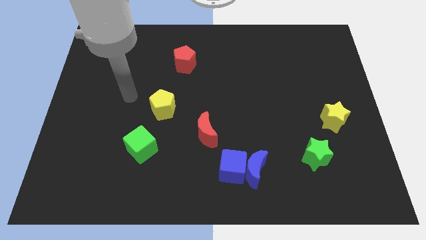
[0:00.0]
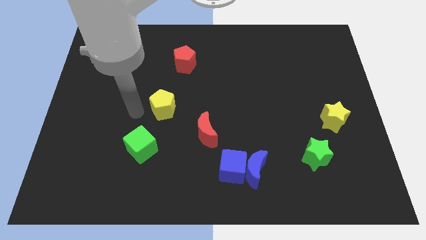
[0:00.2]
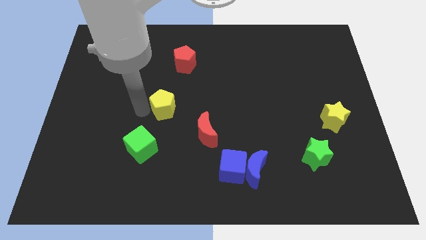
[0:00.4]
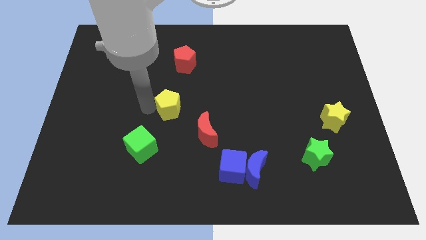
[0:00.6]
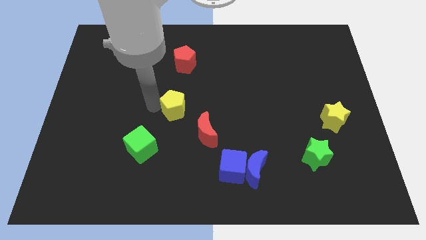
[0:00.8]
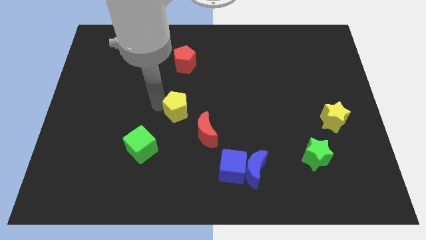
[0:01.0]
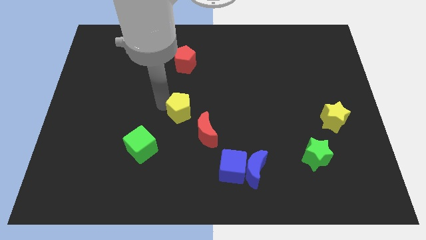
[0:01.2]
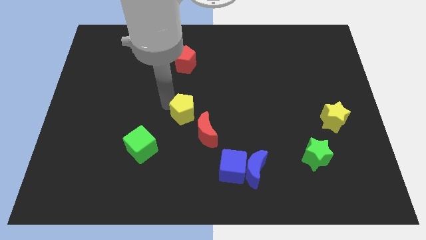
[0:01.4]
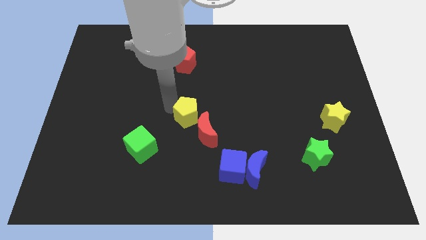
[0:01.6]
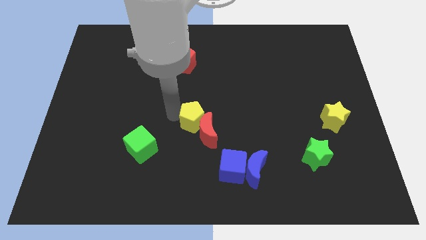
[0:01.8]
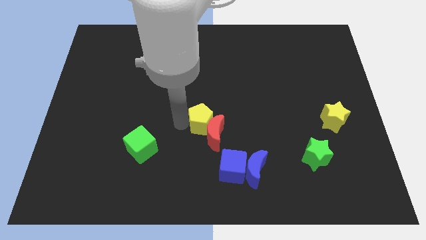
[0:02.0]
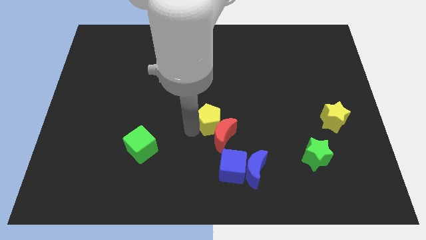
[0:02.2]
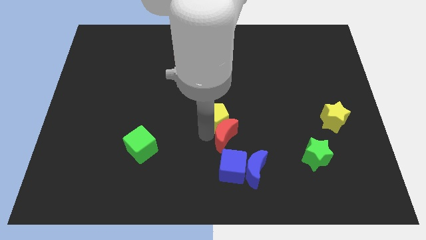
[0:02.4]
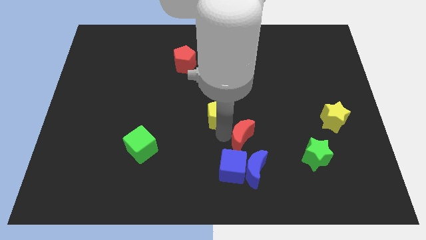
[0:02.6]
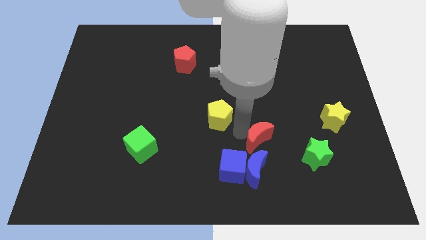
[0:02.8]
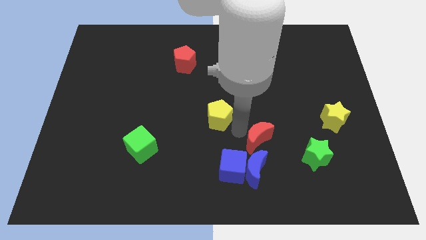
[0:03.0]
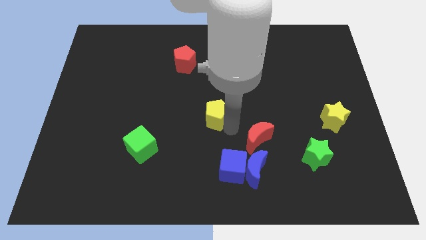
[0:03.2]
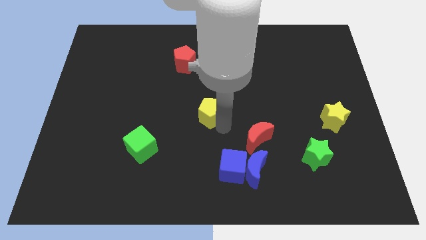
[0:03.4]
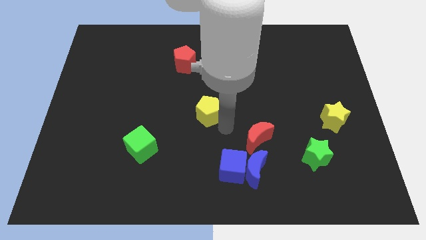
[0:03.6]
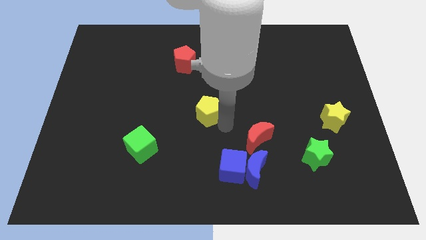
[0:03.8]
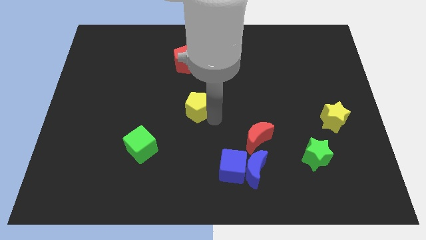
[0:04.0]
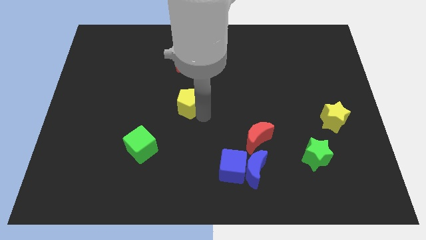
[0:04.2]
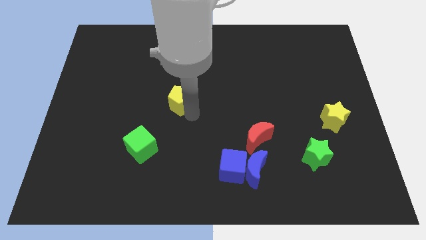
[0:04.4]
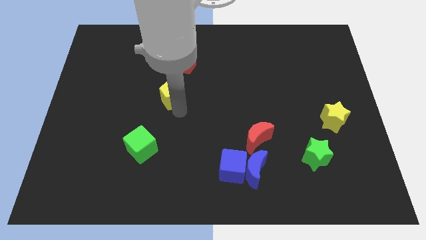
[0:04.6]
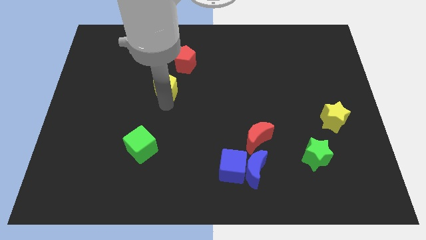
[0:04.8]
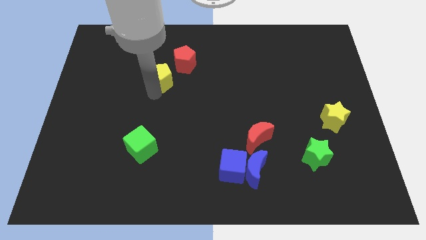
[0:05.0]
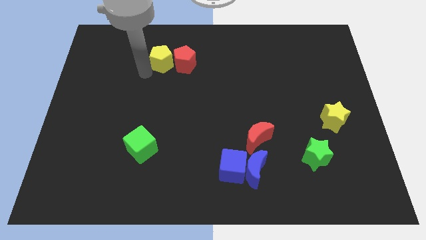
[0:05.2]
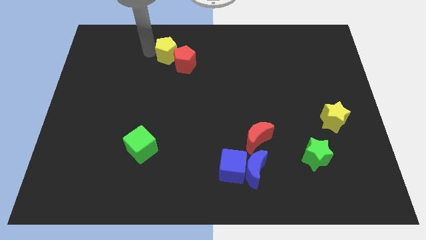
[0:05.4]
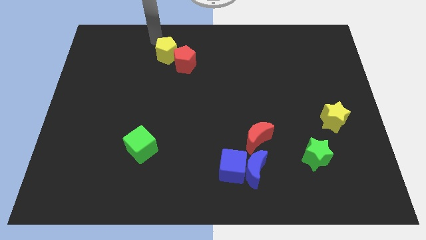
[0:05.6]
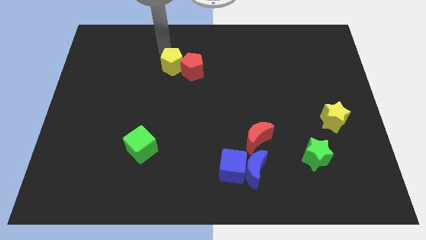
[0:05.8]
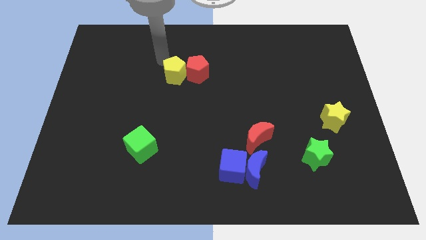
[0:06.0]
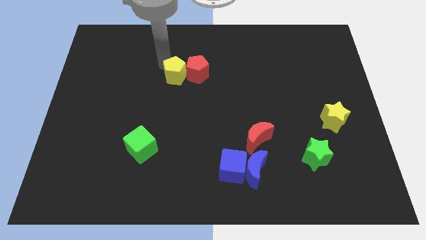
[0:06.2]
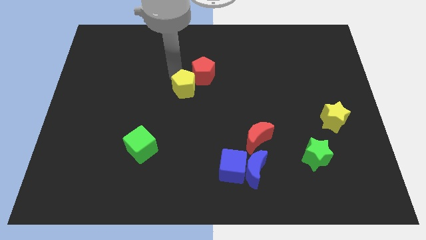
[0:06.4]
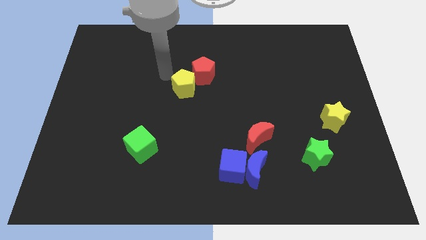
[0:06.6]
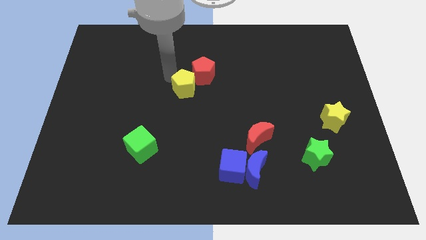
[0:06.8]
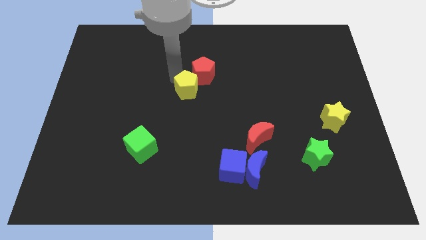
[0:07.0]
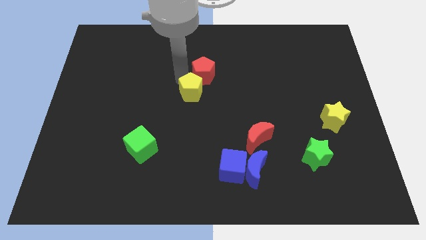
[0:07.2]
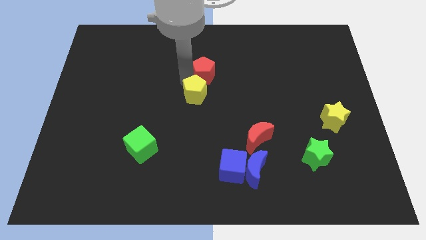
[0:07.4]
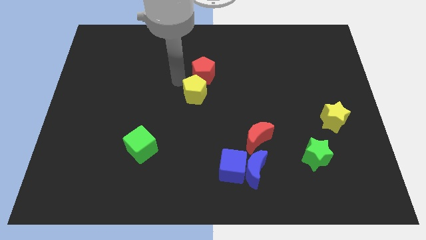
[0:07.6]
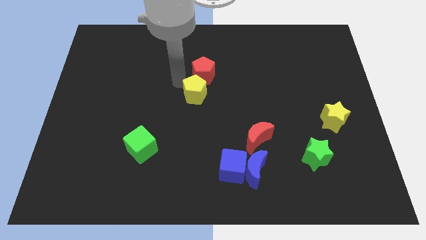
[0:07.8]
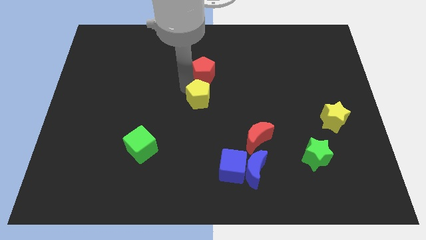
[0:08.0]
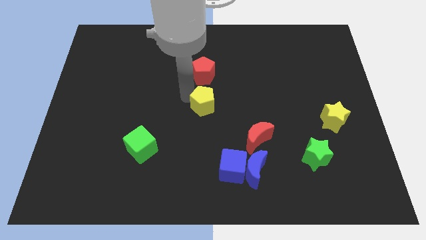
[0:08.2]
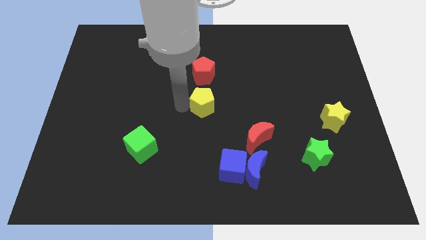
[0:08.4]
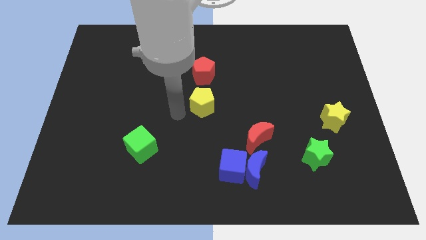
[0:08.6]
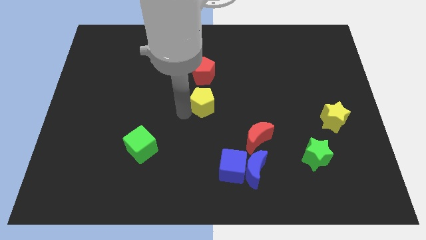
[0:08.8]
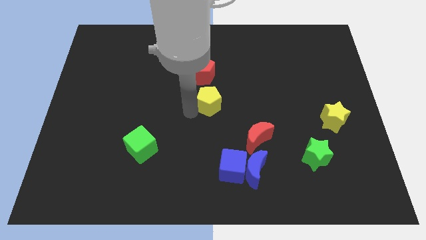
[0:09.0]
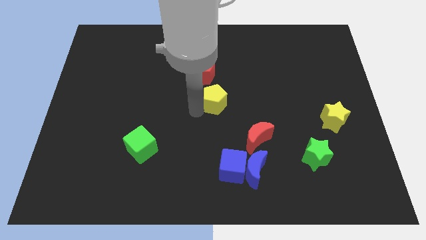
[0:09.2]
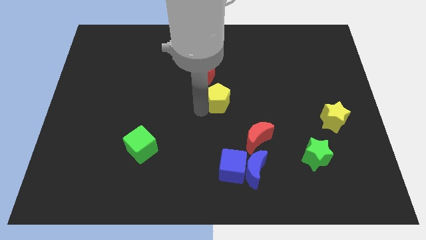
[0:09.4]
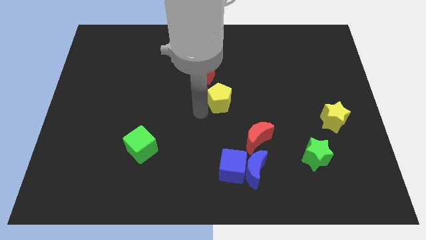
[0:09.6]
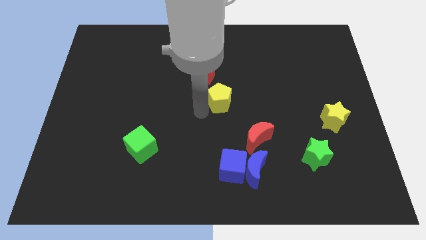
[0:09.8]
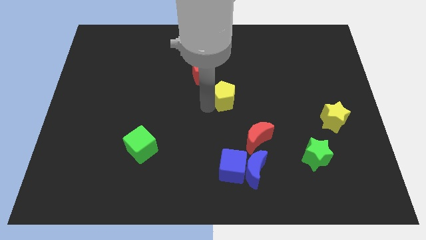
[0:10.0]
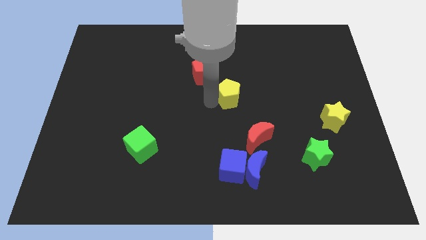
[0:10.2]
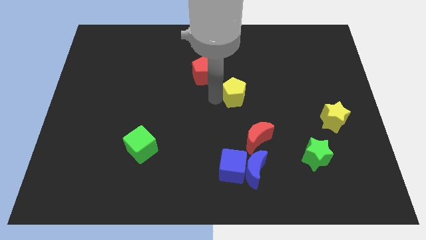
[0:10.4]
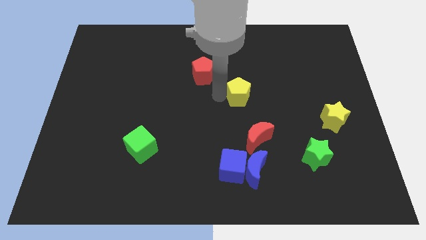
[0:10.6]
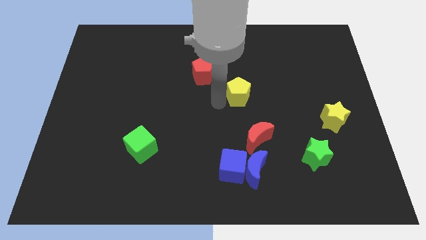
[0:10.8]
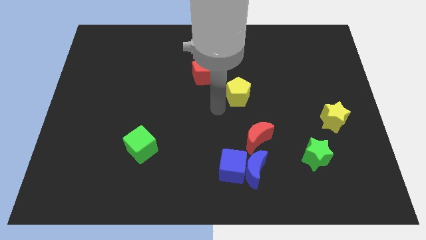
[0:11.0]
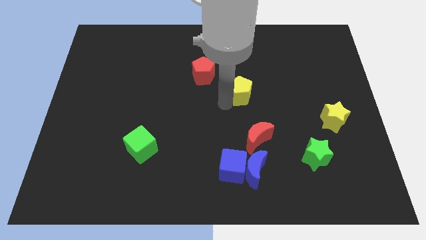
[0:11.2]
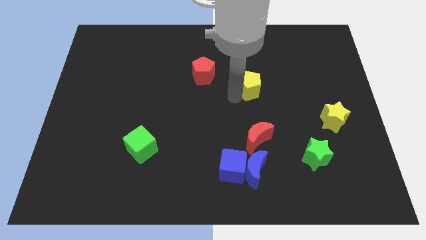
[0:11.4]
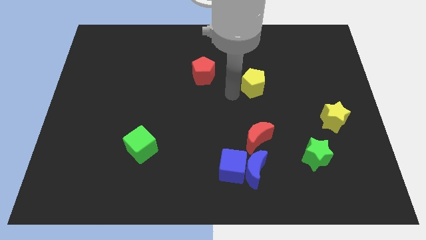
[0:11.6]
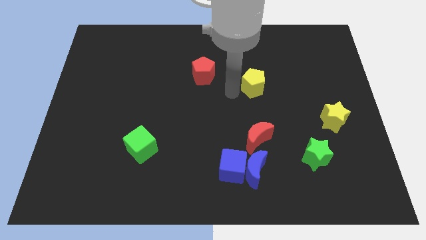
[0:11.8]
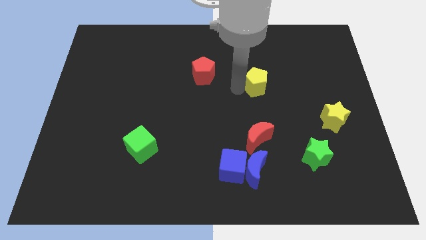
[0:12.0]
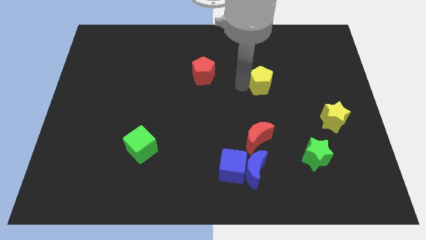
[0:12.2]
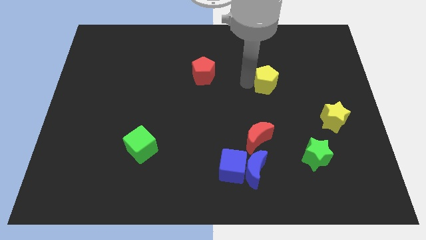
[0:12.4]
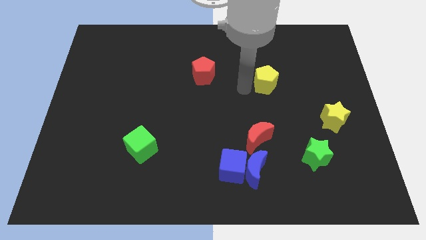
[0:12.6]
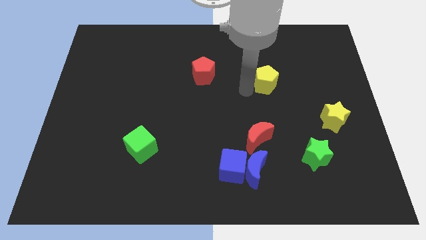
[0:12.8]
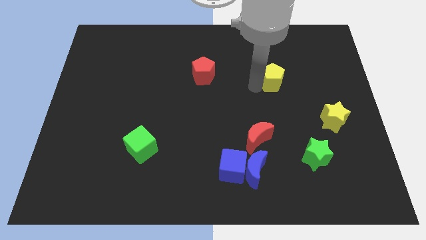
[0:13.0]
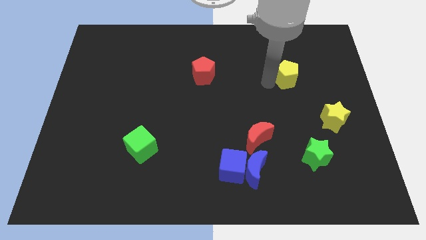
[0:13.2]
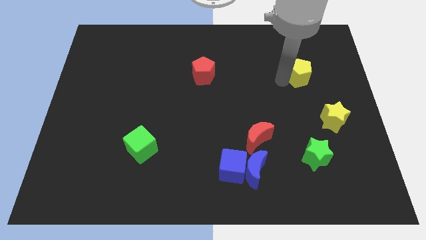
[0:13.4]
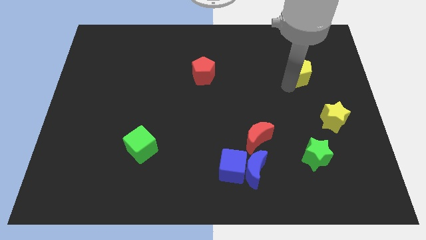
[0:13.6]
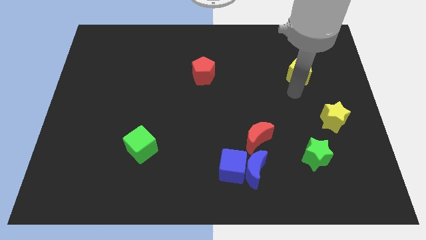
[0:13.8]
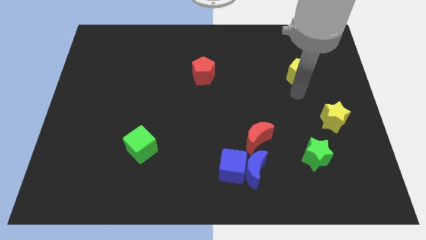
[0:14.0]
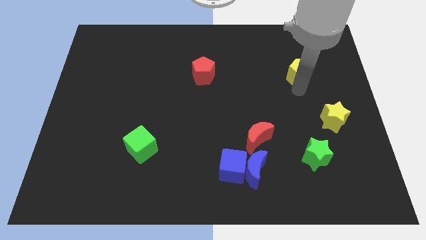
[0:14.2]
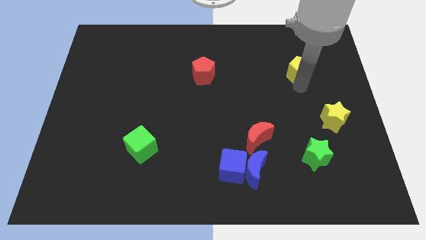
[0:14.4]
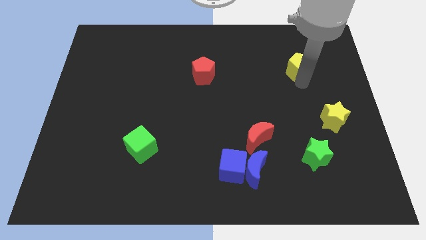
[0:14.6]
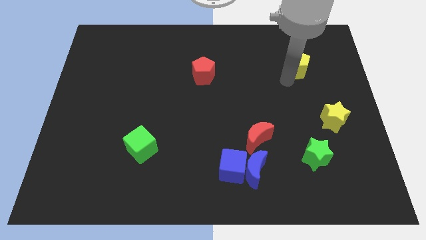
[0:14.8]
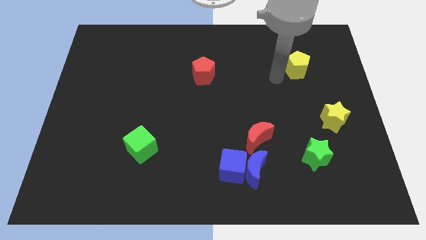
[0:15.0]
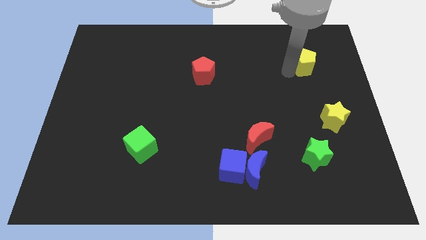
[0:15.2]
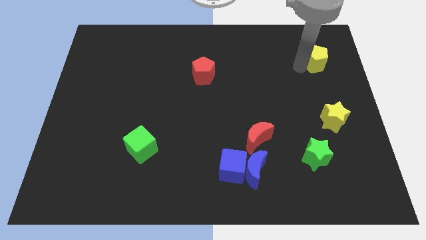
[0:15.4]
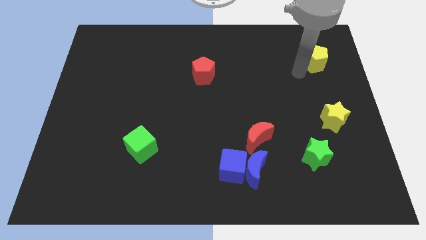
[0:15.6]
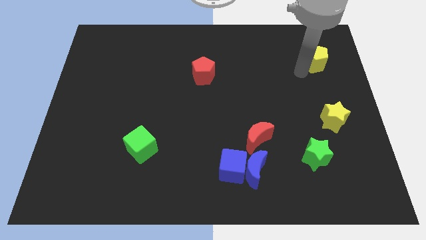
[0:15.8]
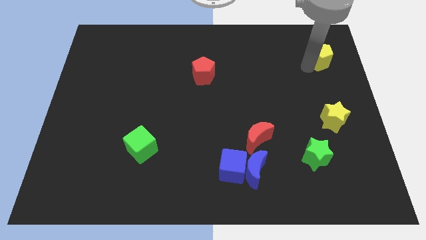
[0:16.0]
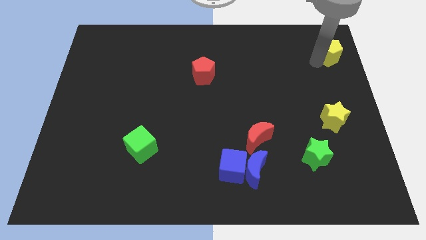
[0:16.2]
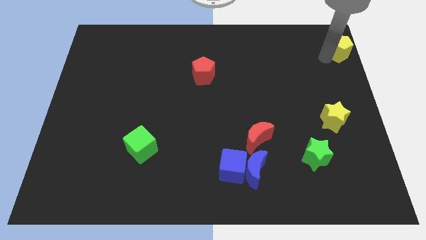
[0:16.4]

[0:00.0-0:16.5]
put the yellow pentagon to the top right of the board
